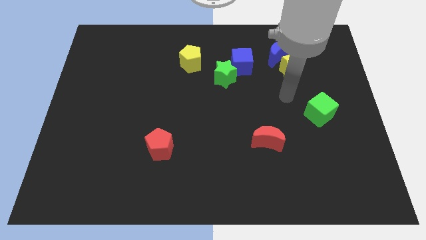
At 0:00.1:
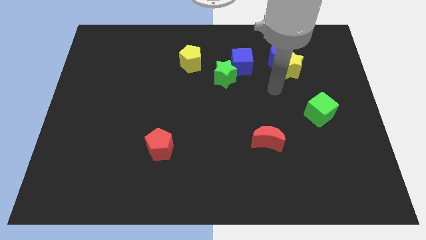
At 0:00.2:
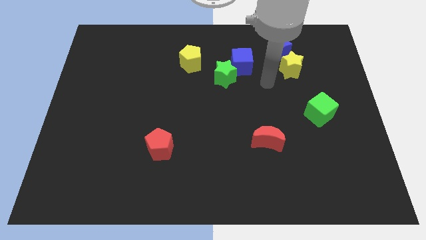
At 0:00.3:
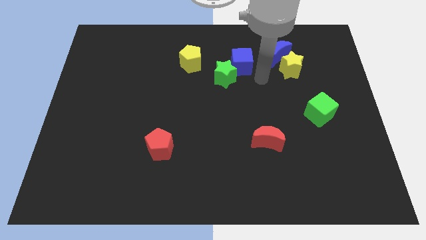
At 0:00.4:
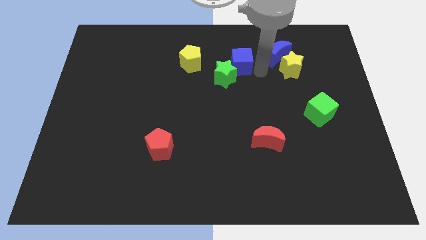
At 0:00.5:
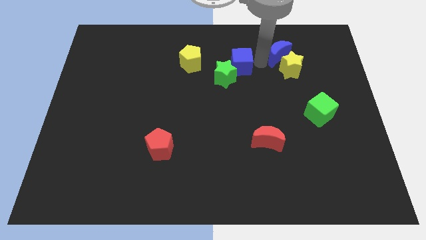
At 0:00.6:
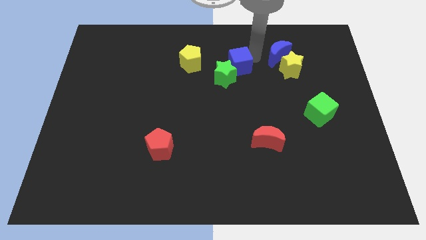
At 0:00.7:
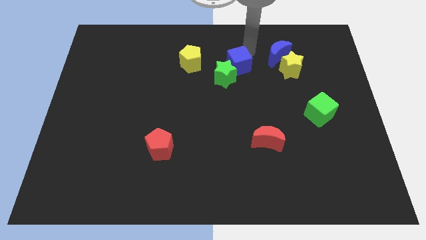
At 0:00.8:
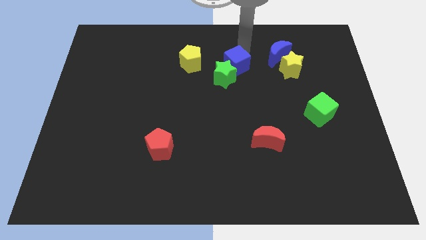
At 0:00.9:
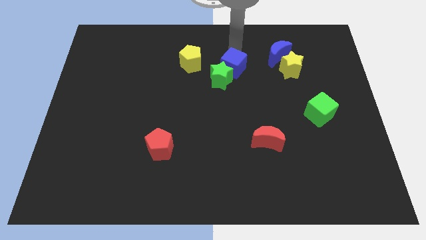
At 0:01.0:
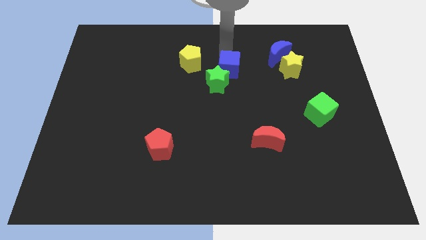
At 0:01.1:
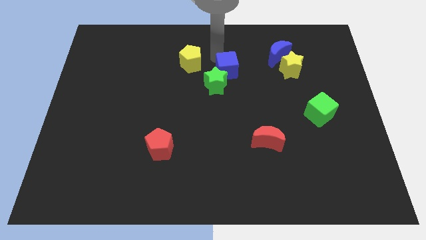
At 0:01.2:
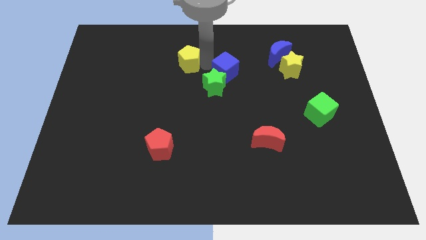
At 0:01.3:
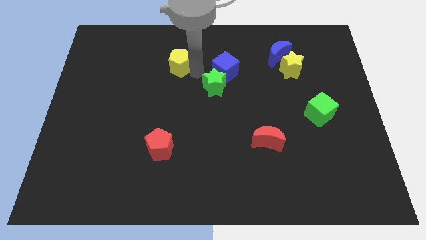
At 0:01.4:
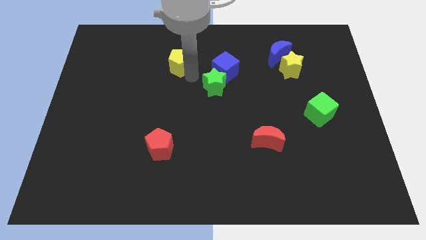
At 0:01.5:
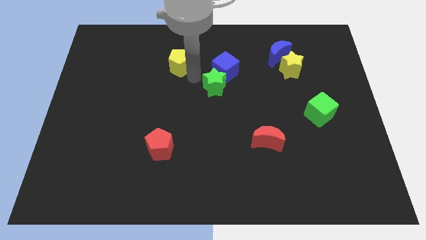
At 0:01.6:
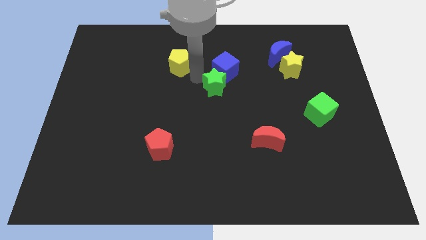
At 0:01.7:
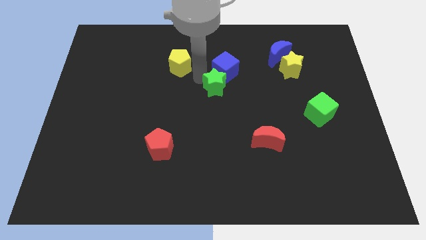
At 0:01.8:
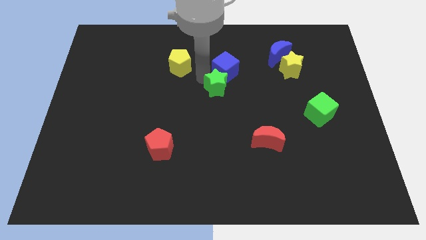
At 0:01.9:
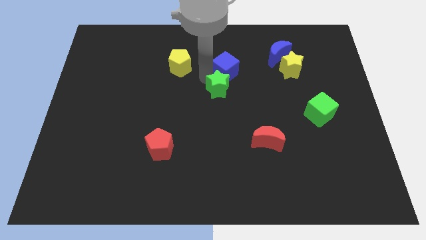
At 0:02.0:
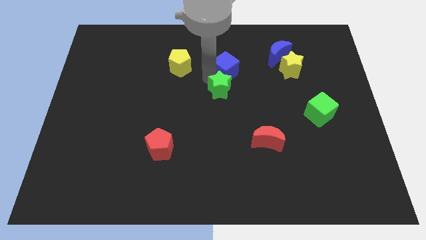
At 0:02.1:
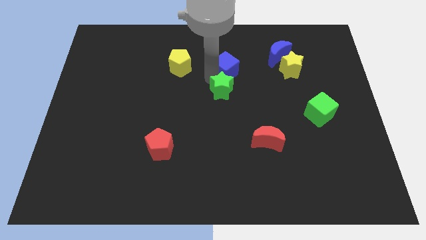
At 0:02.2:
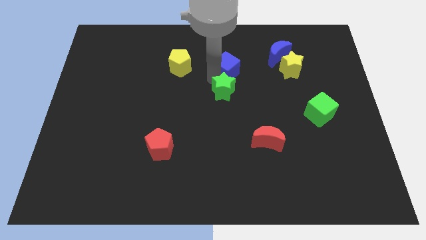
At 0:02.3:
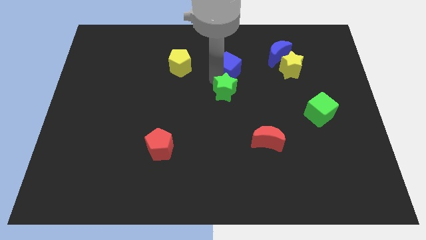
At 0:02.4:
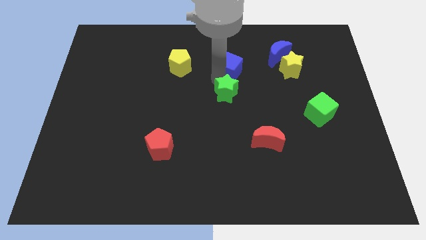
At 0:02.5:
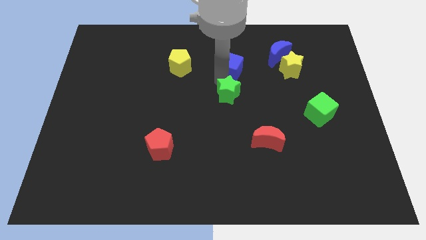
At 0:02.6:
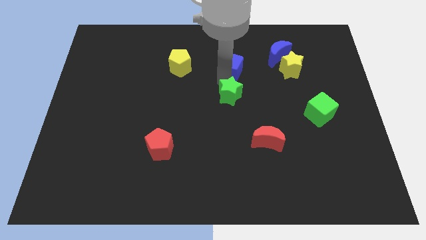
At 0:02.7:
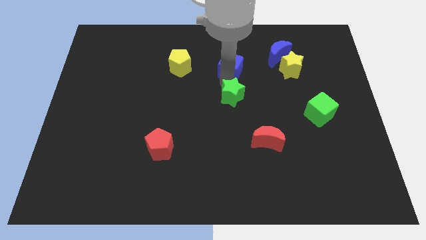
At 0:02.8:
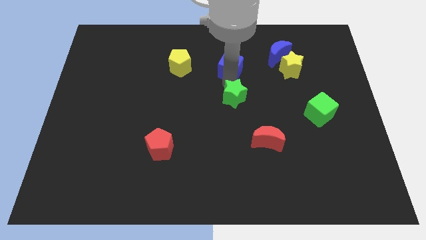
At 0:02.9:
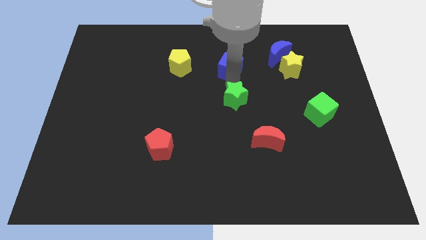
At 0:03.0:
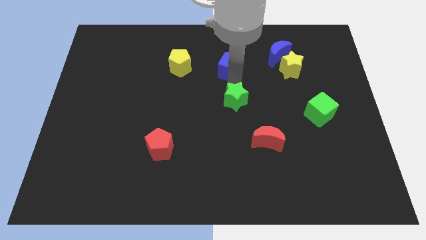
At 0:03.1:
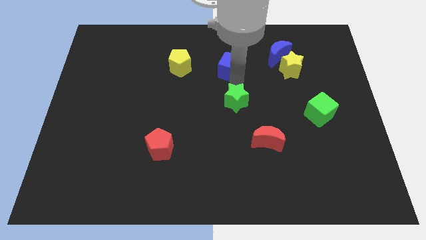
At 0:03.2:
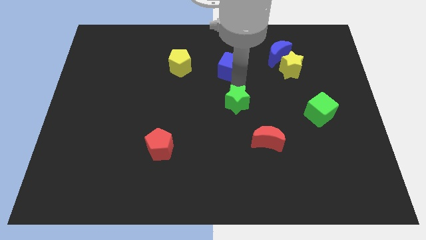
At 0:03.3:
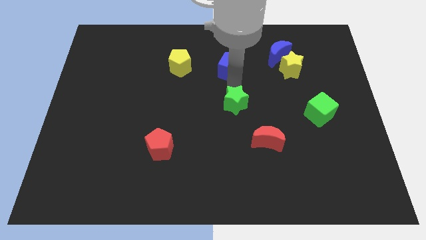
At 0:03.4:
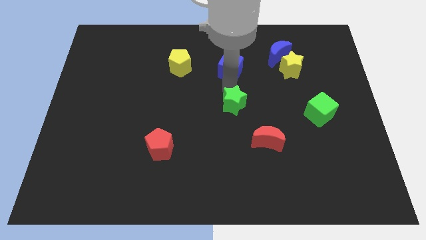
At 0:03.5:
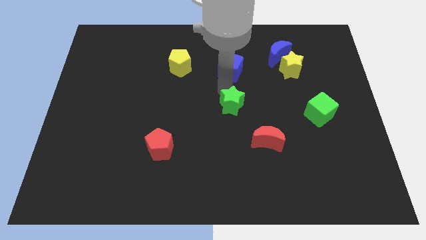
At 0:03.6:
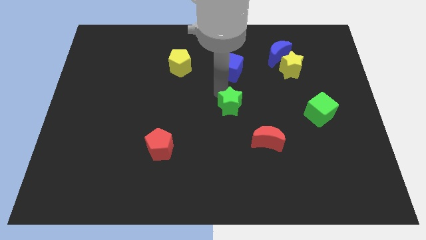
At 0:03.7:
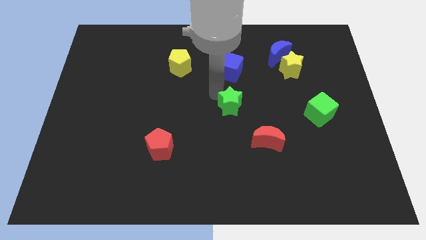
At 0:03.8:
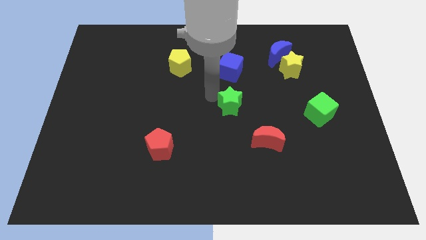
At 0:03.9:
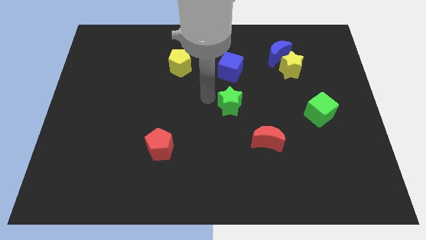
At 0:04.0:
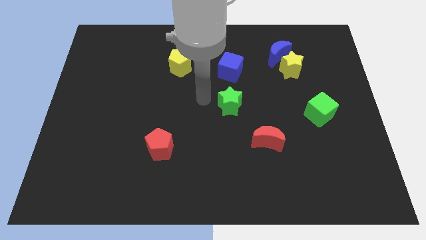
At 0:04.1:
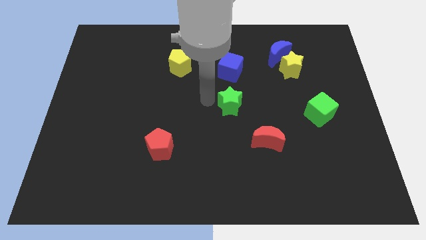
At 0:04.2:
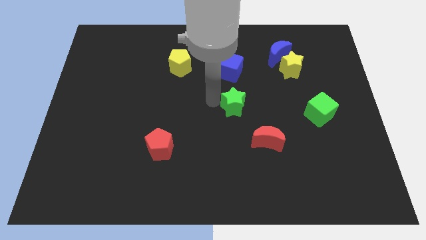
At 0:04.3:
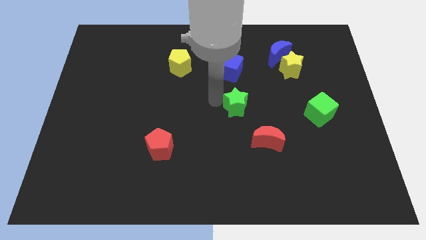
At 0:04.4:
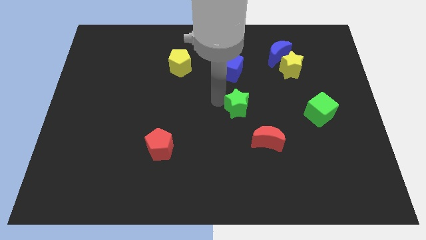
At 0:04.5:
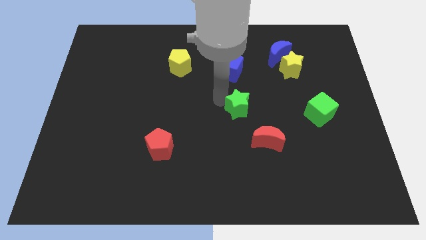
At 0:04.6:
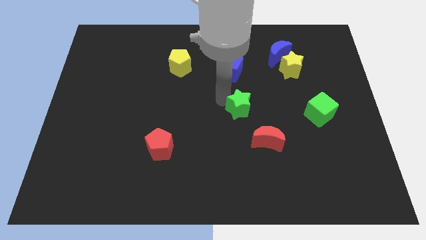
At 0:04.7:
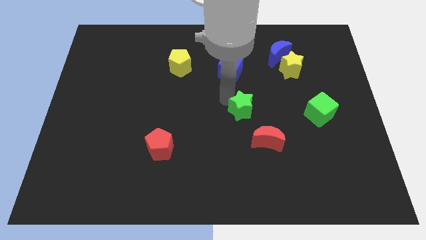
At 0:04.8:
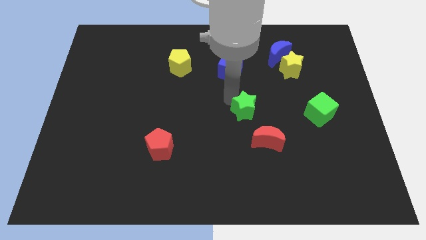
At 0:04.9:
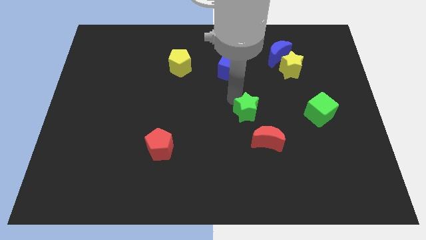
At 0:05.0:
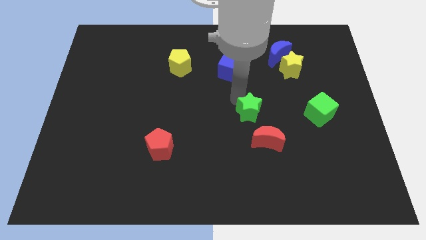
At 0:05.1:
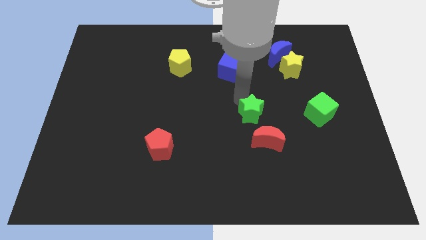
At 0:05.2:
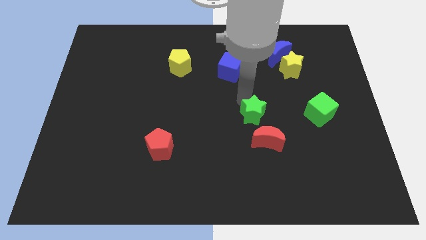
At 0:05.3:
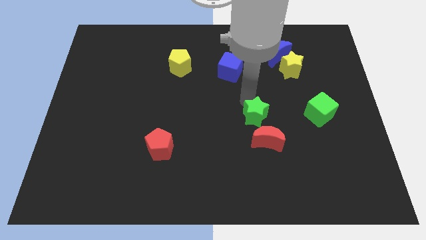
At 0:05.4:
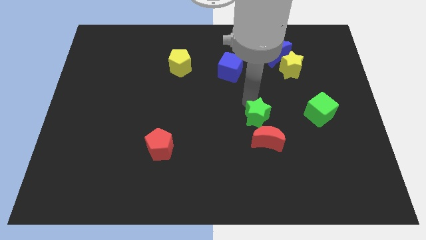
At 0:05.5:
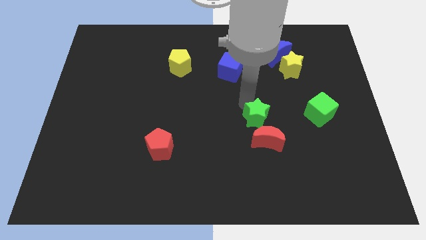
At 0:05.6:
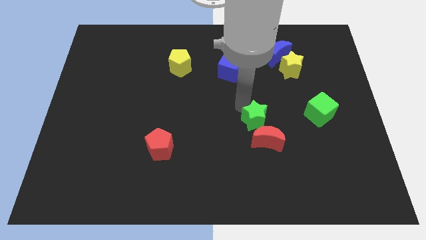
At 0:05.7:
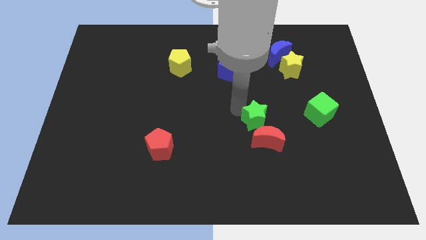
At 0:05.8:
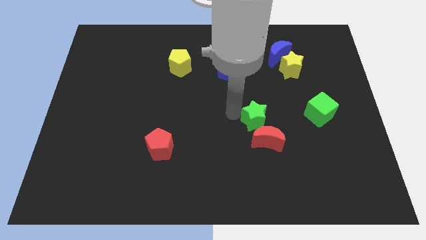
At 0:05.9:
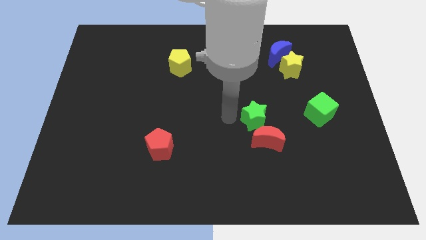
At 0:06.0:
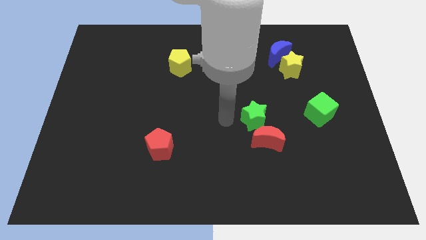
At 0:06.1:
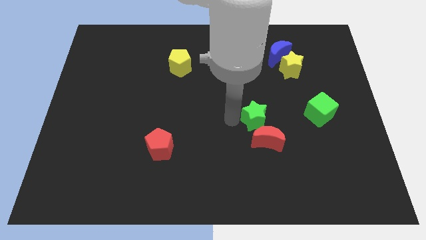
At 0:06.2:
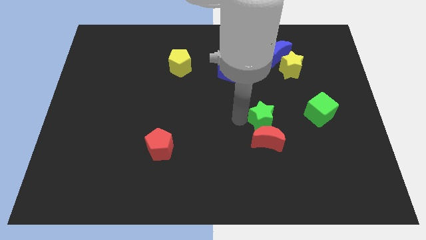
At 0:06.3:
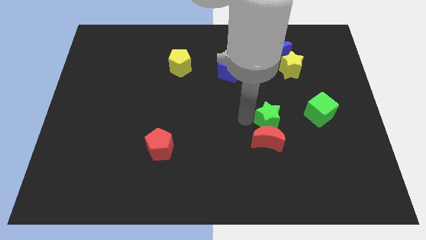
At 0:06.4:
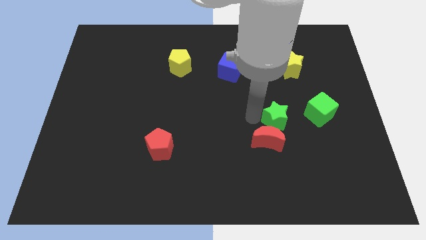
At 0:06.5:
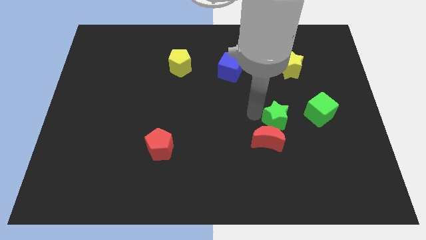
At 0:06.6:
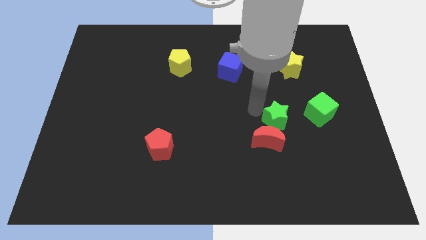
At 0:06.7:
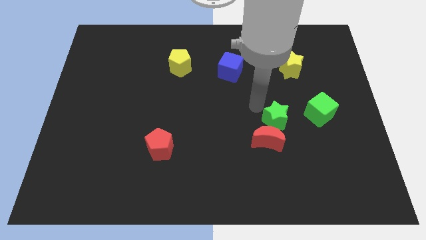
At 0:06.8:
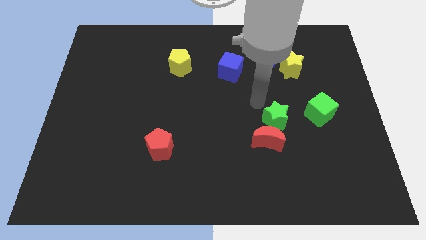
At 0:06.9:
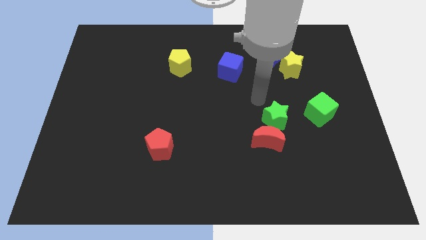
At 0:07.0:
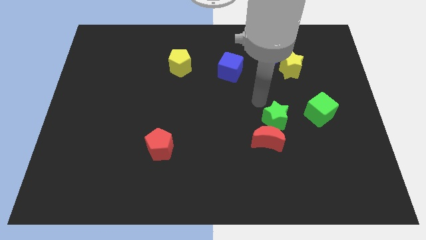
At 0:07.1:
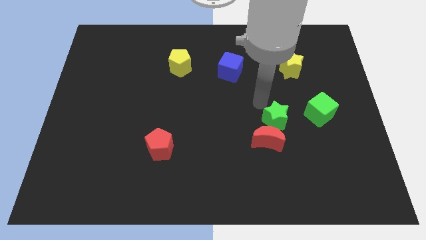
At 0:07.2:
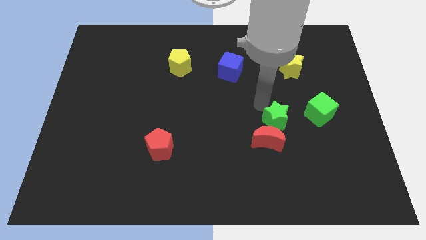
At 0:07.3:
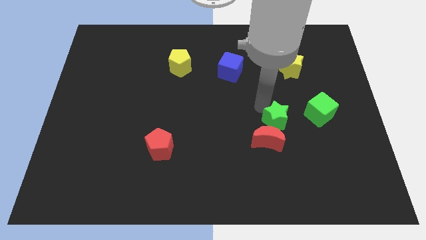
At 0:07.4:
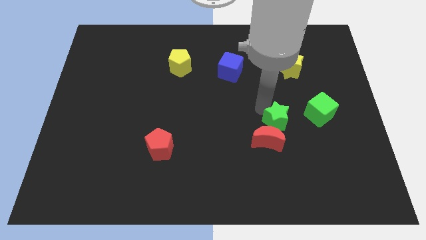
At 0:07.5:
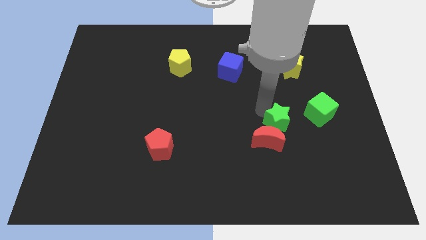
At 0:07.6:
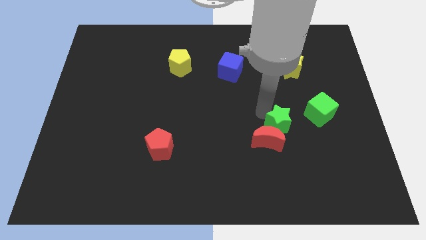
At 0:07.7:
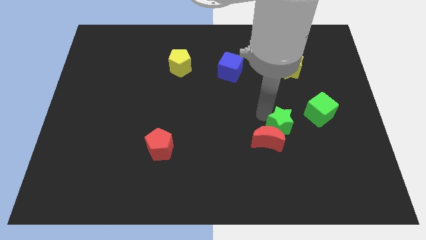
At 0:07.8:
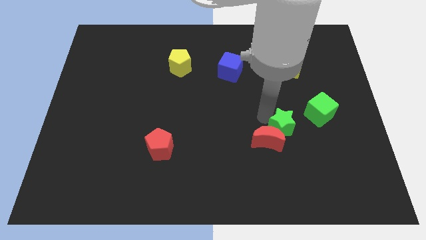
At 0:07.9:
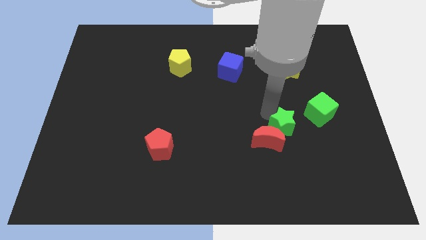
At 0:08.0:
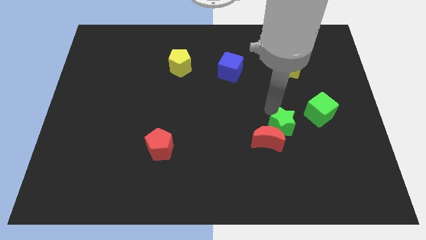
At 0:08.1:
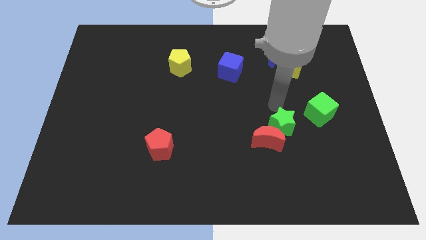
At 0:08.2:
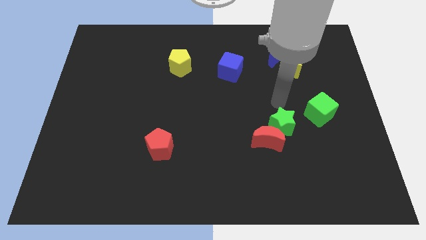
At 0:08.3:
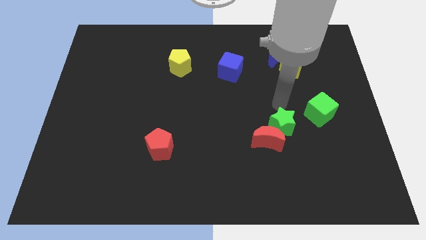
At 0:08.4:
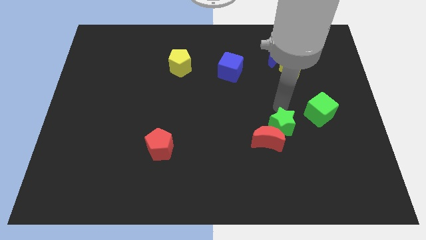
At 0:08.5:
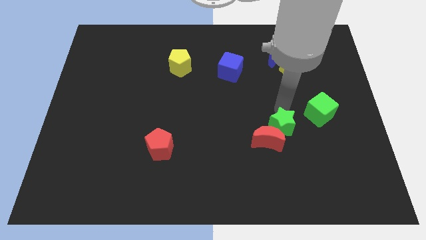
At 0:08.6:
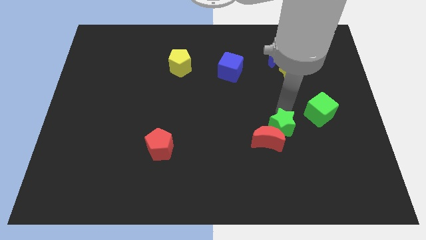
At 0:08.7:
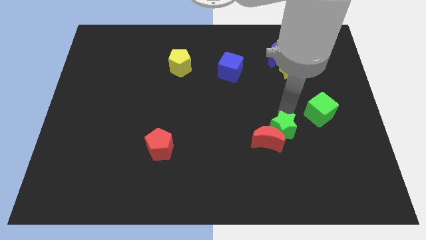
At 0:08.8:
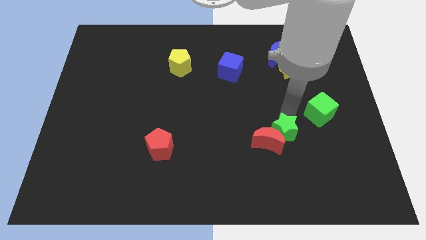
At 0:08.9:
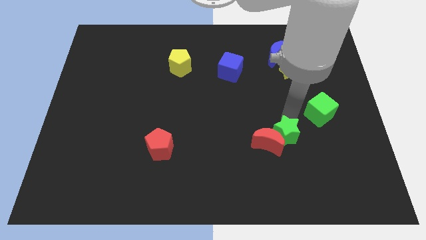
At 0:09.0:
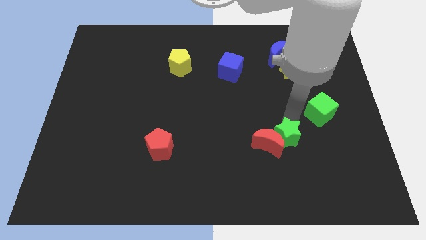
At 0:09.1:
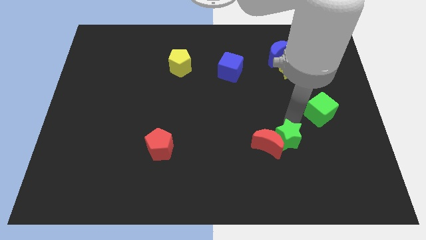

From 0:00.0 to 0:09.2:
put the green star to the bottom right of the red moon
